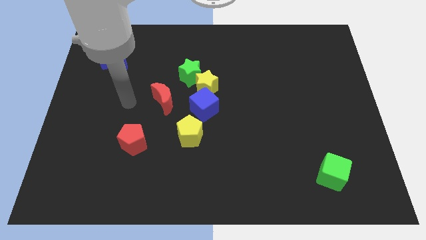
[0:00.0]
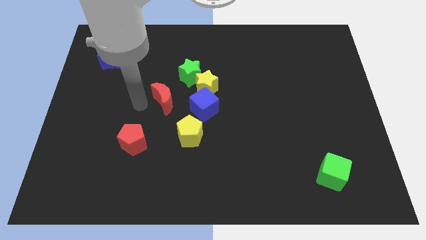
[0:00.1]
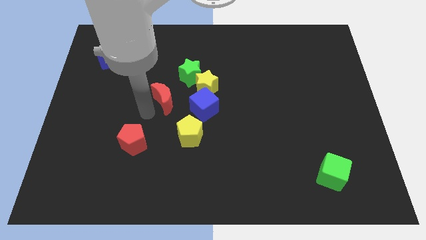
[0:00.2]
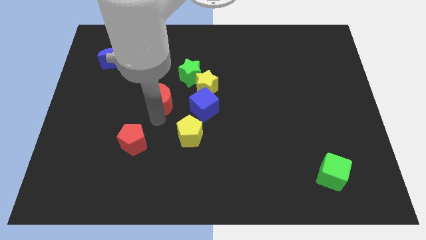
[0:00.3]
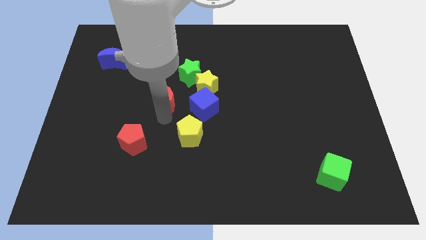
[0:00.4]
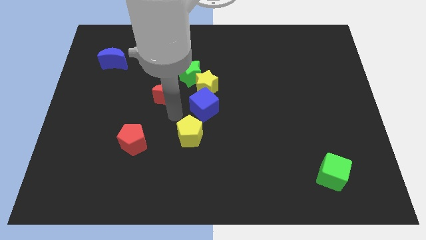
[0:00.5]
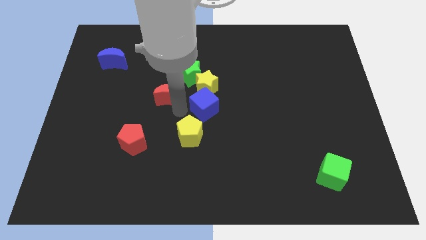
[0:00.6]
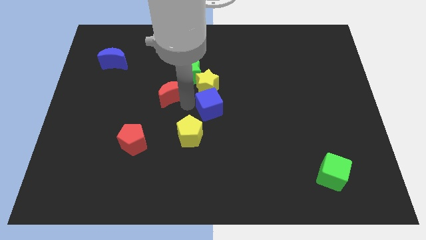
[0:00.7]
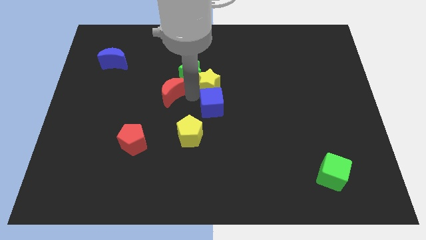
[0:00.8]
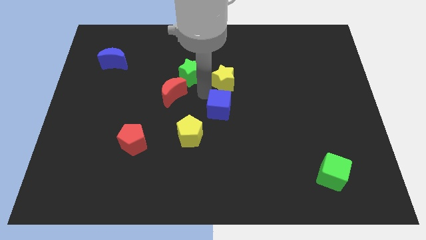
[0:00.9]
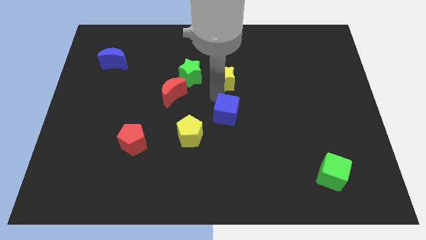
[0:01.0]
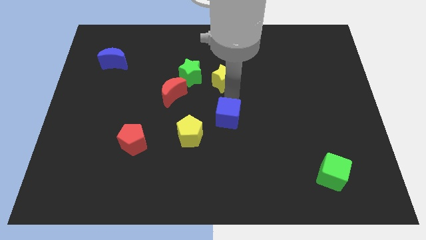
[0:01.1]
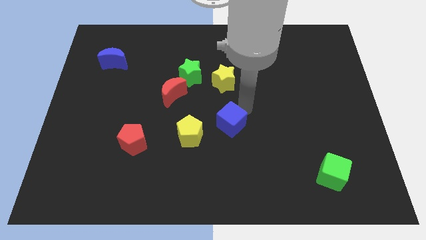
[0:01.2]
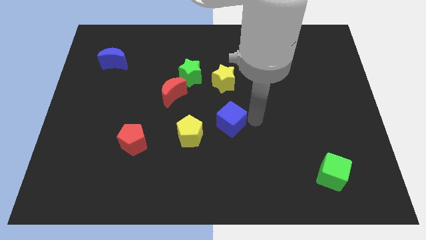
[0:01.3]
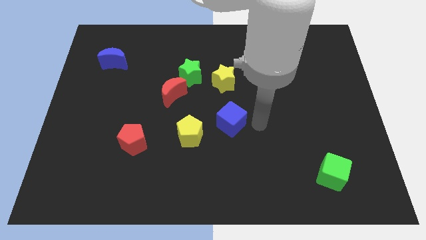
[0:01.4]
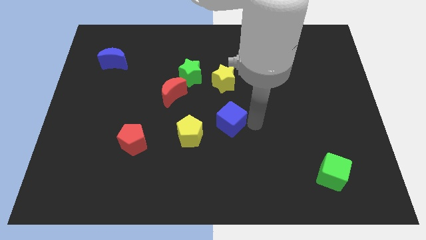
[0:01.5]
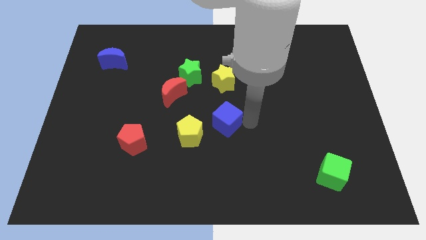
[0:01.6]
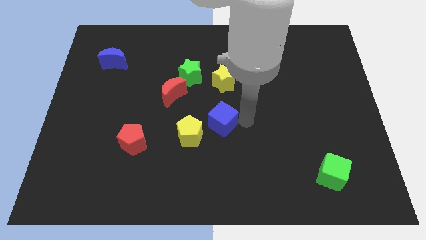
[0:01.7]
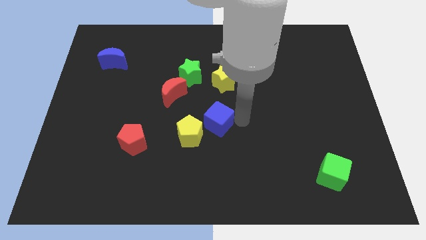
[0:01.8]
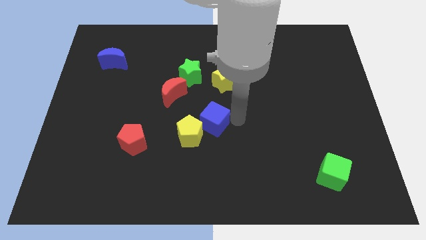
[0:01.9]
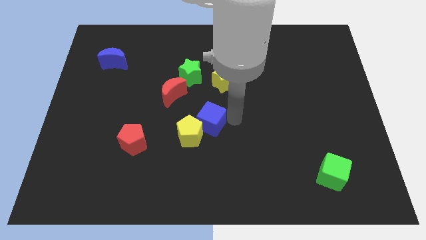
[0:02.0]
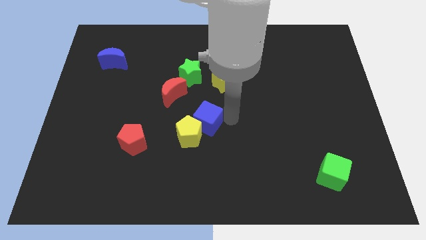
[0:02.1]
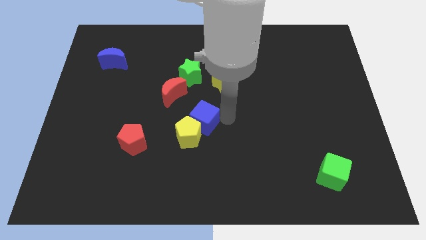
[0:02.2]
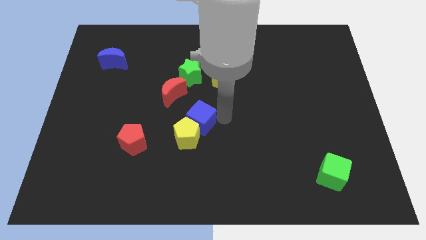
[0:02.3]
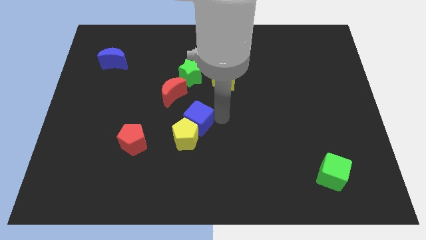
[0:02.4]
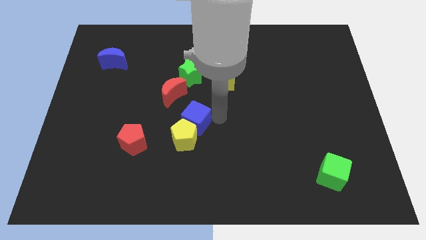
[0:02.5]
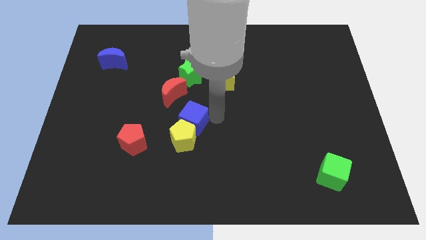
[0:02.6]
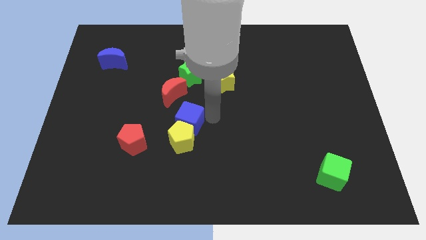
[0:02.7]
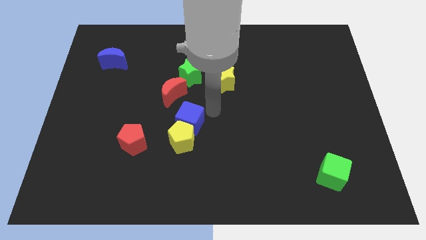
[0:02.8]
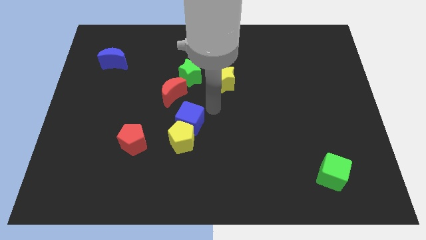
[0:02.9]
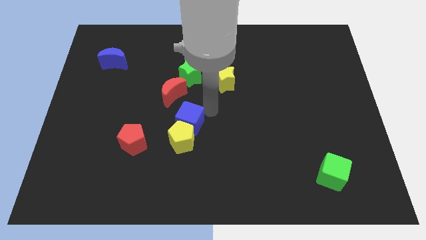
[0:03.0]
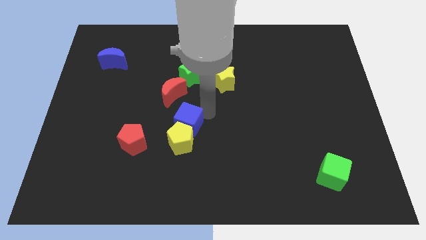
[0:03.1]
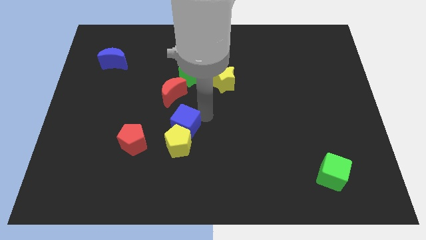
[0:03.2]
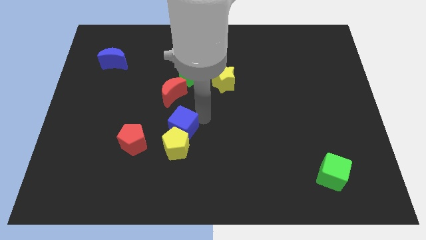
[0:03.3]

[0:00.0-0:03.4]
push the blue cube downwards and then to the left somewhat

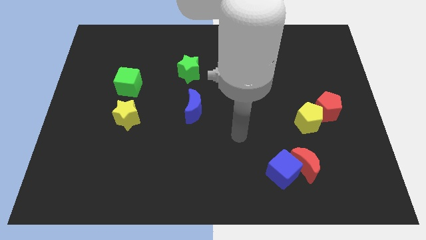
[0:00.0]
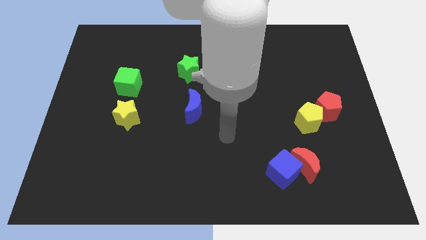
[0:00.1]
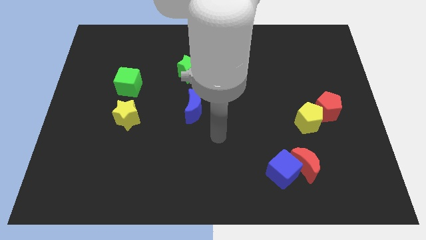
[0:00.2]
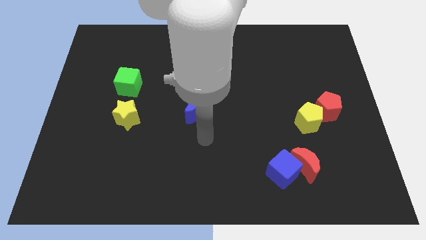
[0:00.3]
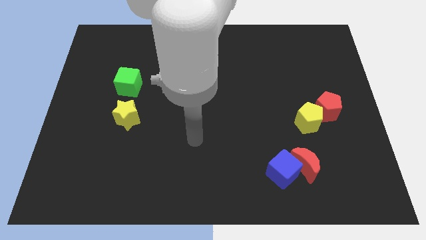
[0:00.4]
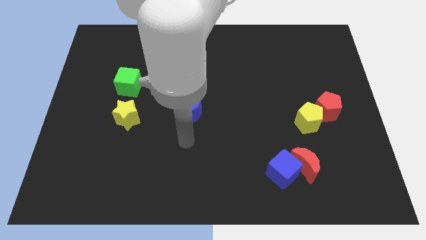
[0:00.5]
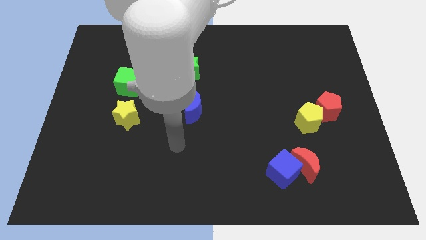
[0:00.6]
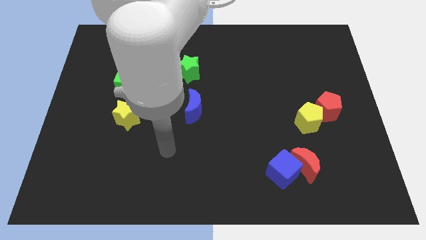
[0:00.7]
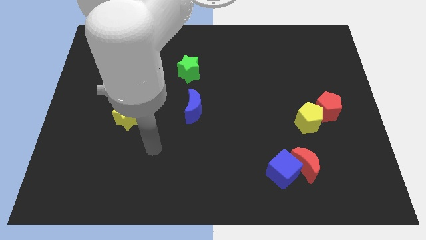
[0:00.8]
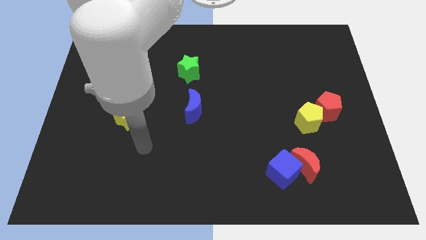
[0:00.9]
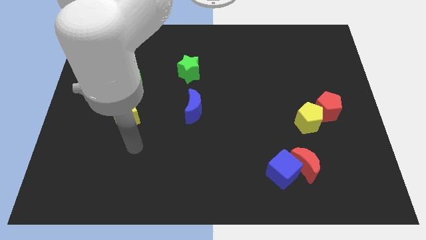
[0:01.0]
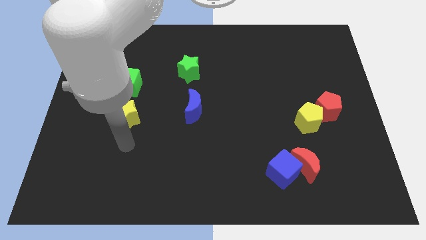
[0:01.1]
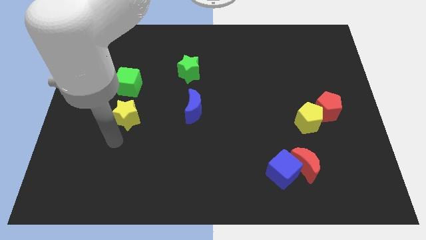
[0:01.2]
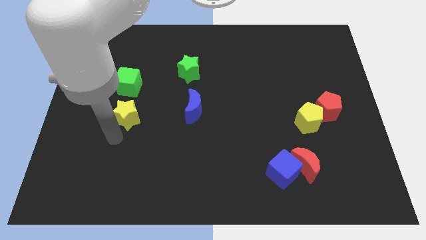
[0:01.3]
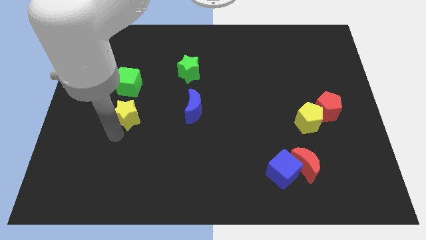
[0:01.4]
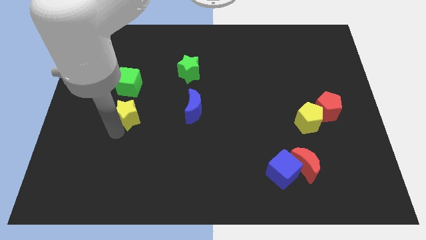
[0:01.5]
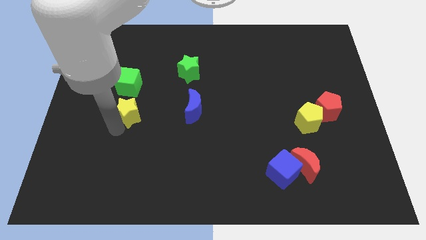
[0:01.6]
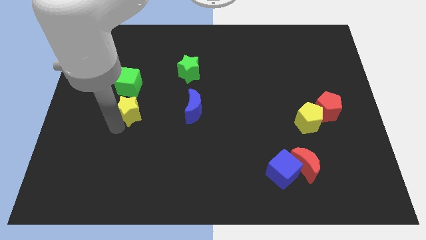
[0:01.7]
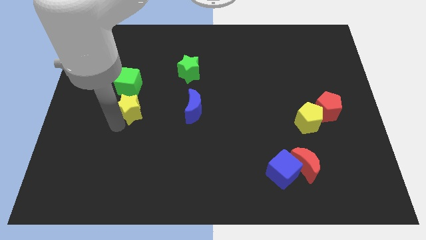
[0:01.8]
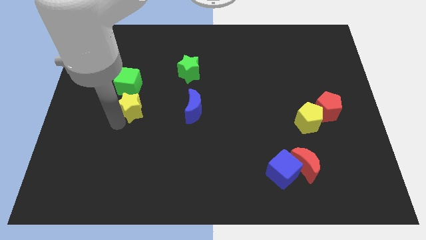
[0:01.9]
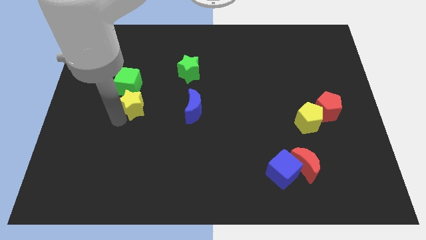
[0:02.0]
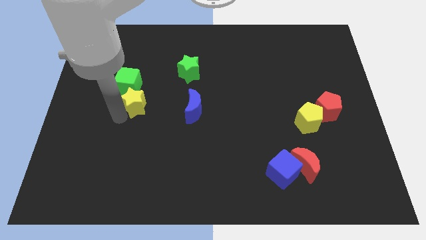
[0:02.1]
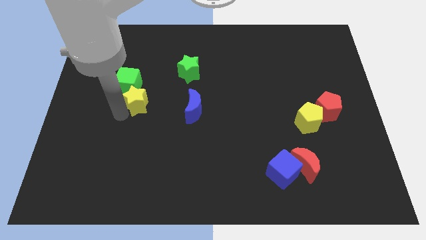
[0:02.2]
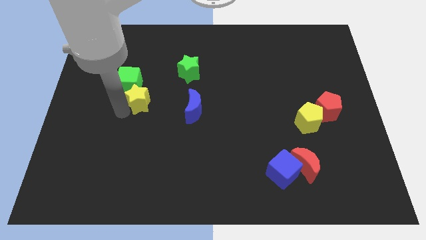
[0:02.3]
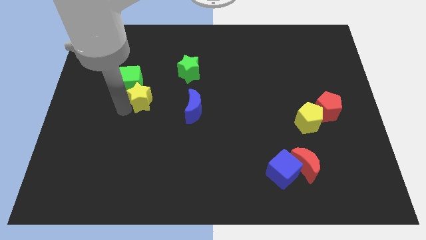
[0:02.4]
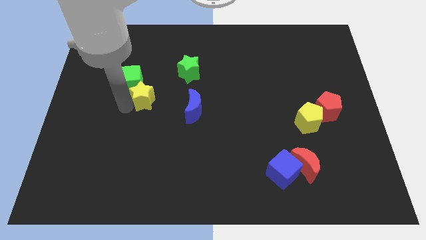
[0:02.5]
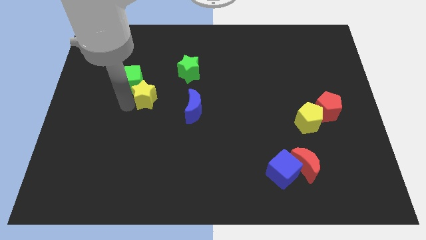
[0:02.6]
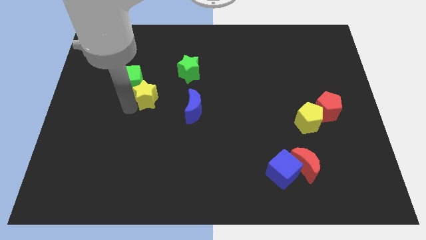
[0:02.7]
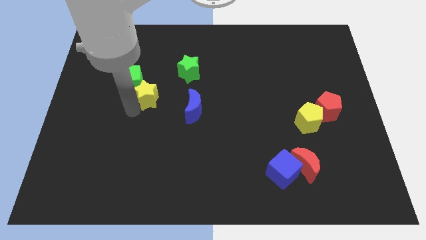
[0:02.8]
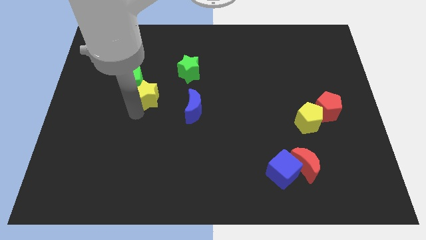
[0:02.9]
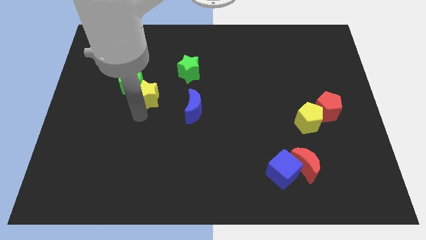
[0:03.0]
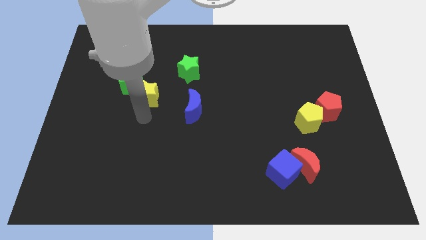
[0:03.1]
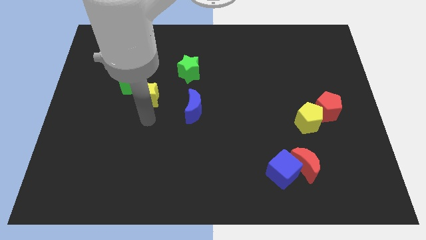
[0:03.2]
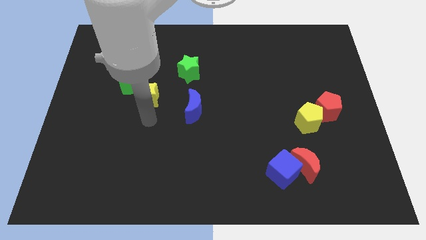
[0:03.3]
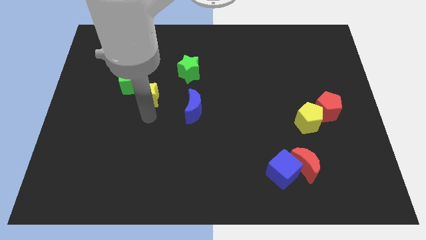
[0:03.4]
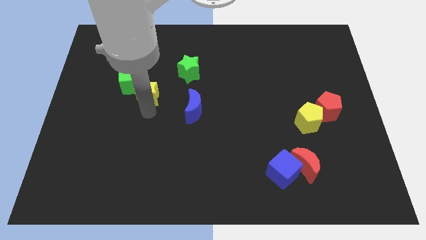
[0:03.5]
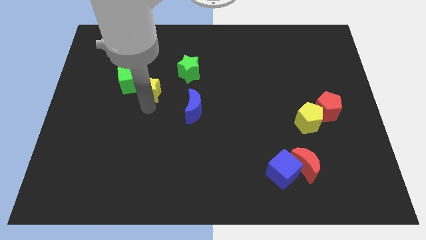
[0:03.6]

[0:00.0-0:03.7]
push the yellow star up somewhat

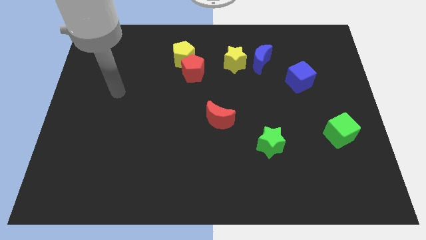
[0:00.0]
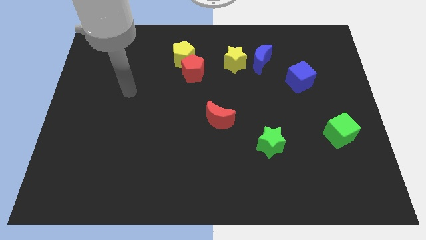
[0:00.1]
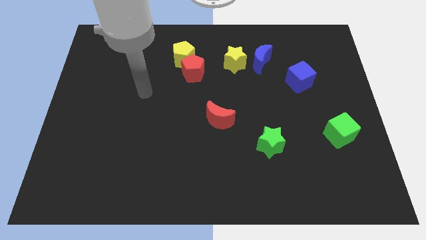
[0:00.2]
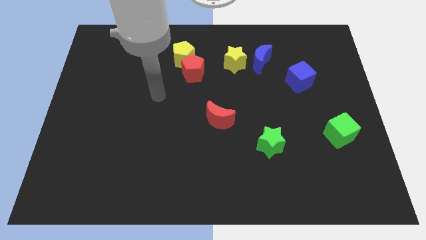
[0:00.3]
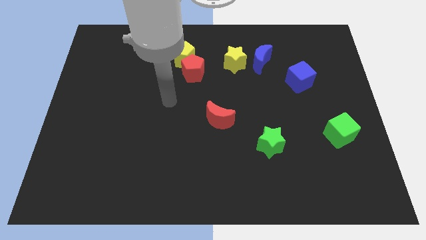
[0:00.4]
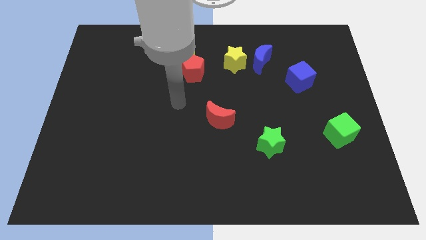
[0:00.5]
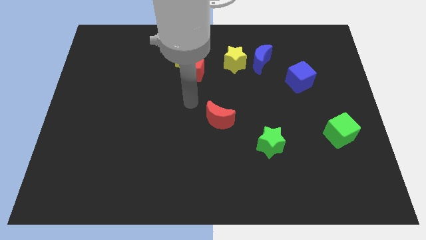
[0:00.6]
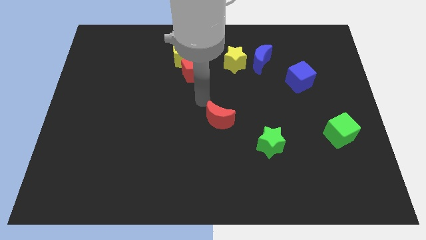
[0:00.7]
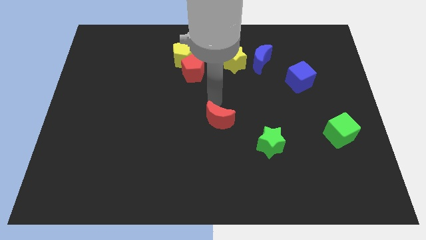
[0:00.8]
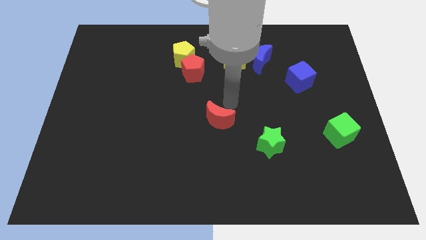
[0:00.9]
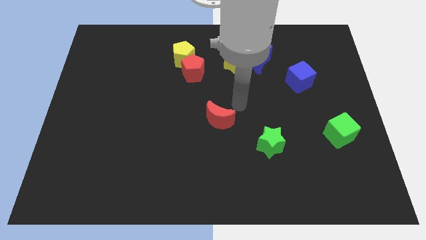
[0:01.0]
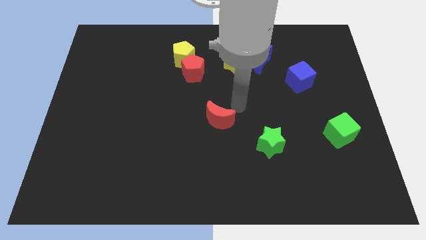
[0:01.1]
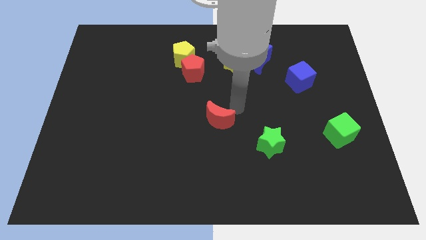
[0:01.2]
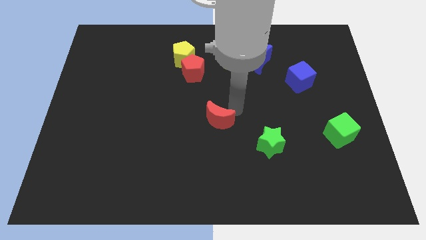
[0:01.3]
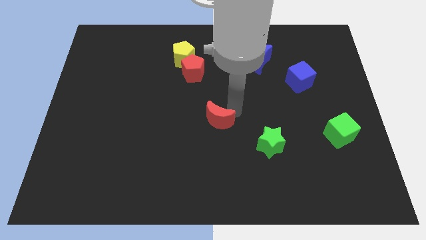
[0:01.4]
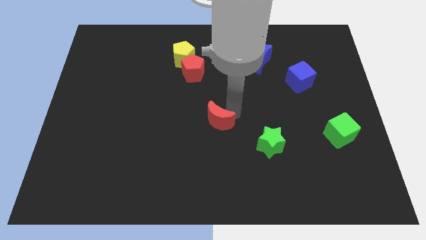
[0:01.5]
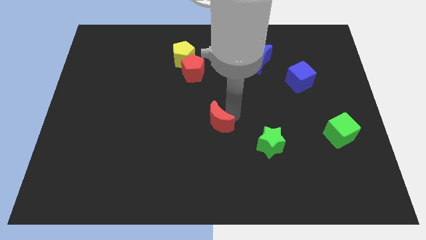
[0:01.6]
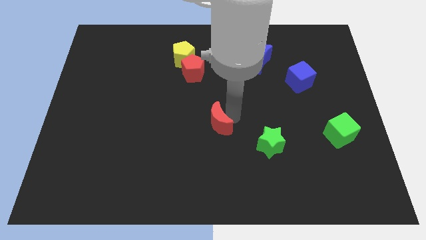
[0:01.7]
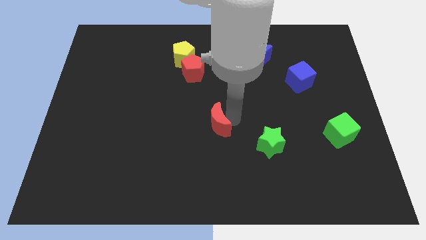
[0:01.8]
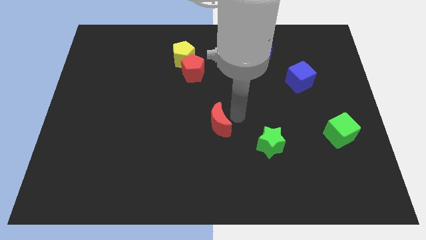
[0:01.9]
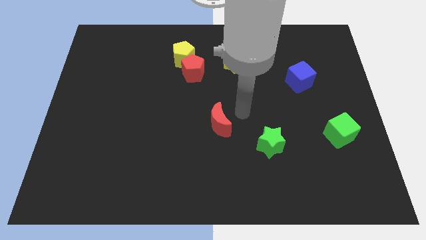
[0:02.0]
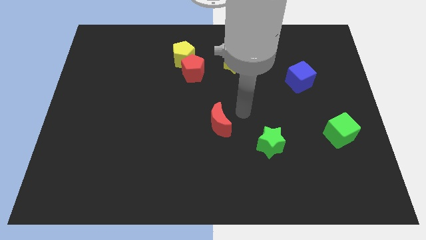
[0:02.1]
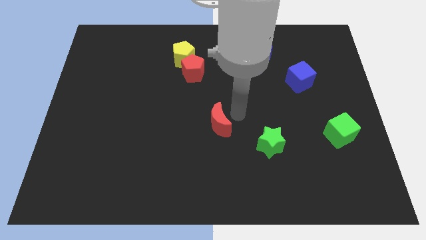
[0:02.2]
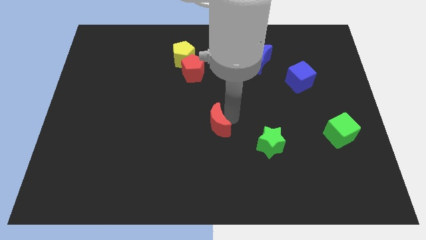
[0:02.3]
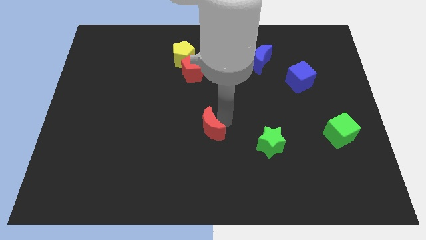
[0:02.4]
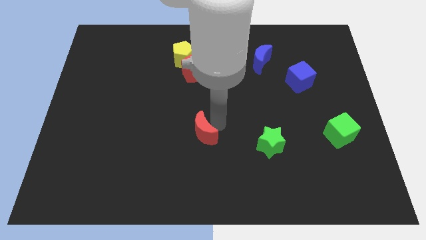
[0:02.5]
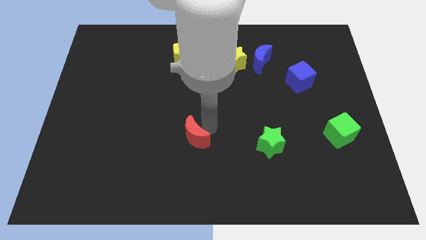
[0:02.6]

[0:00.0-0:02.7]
push the red moon slightly downwards and to the left diagonally
